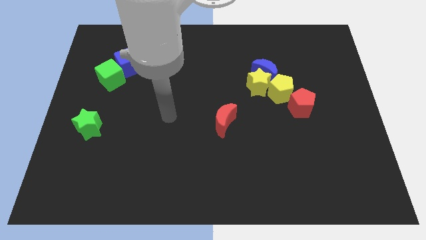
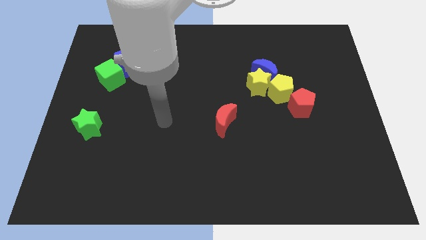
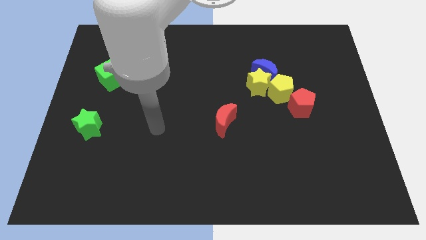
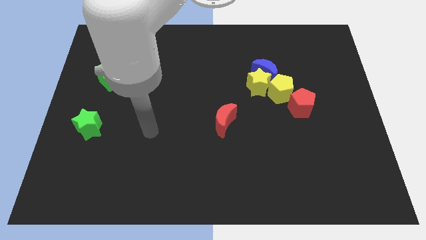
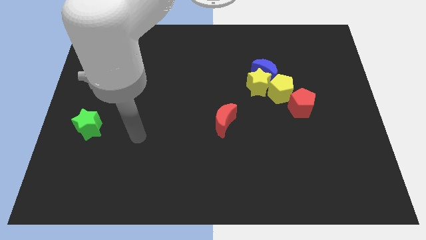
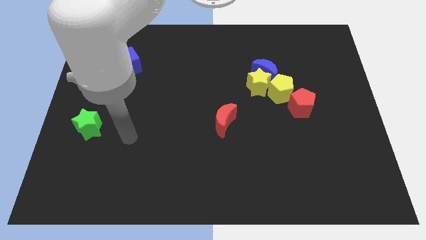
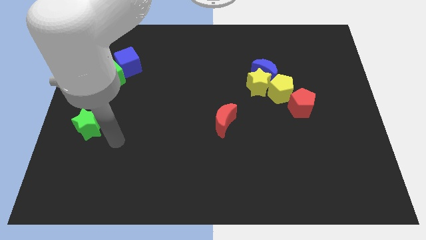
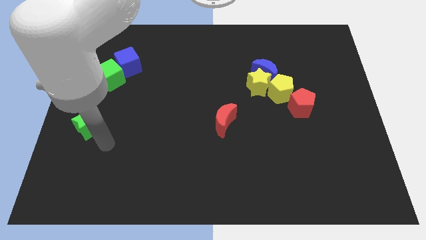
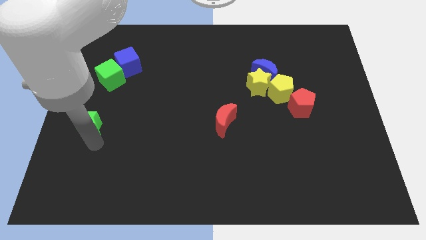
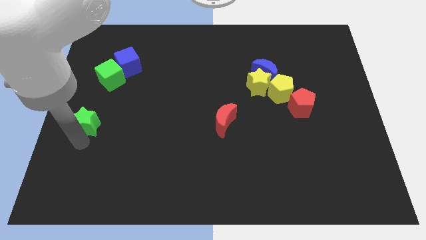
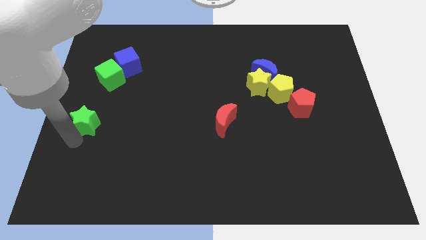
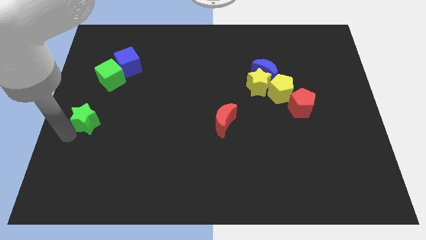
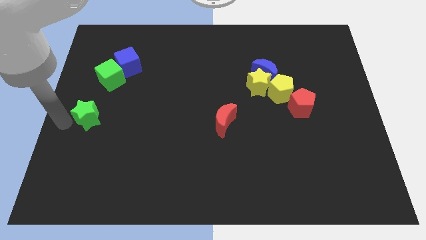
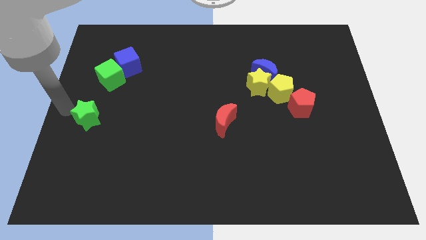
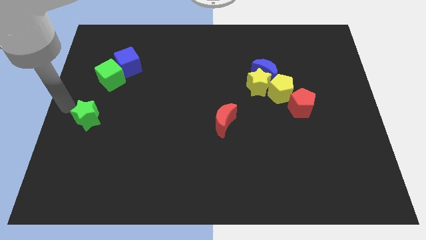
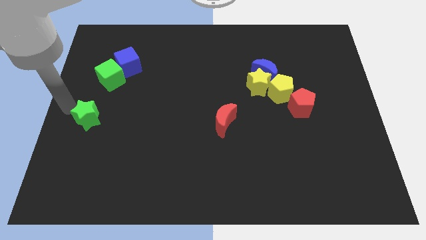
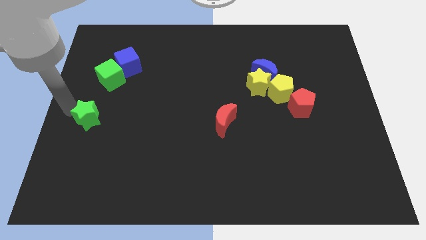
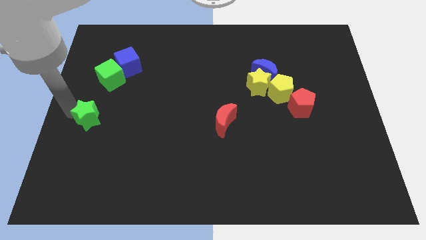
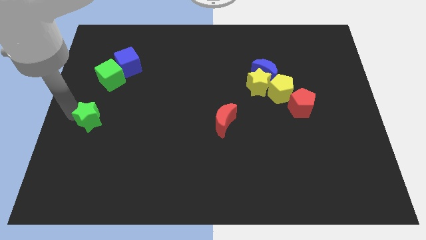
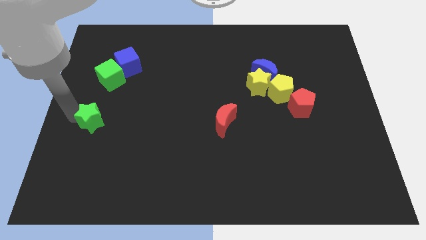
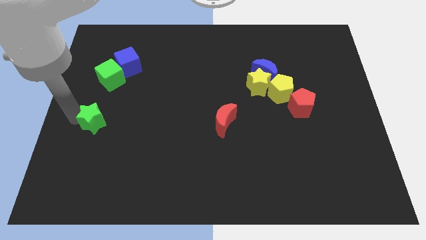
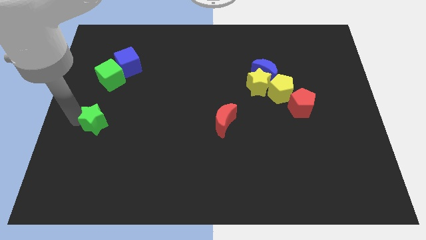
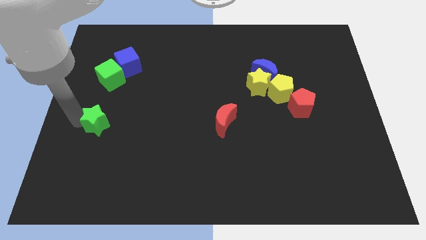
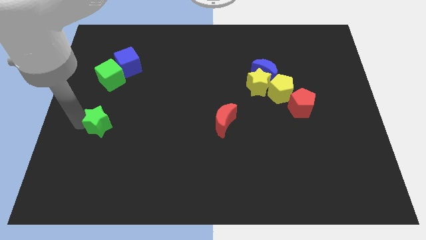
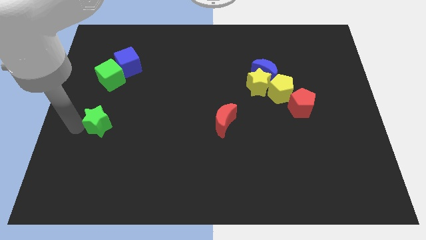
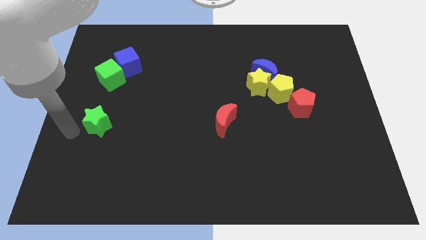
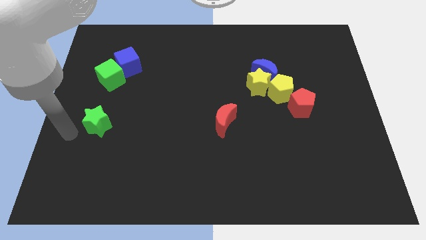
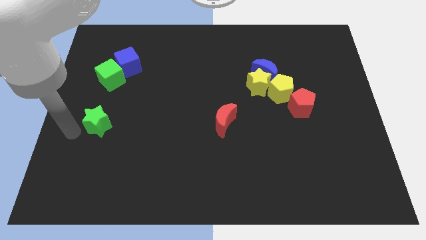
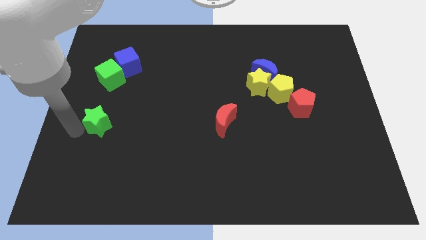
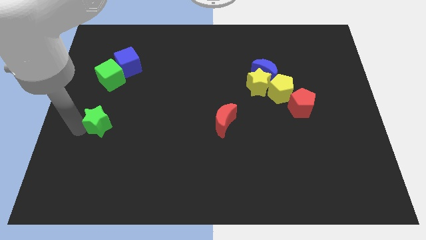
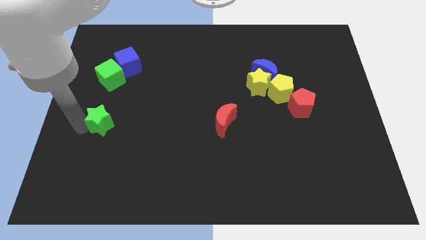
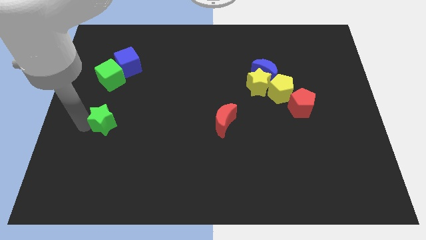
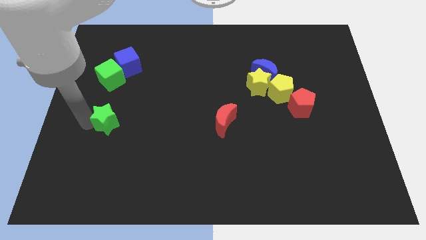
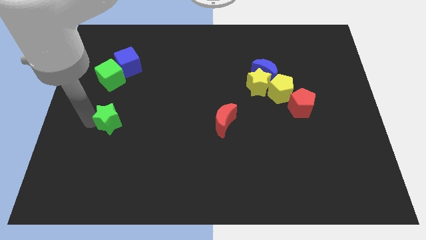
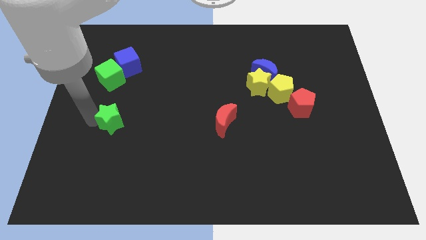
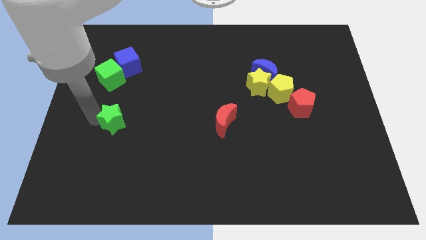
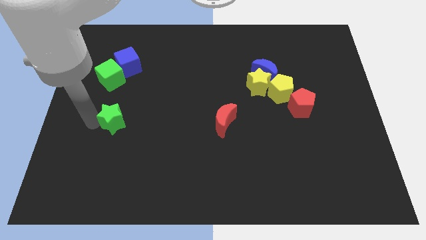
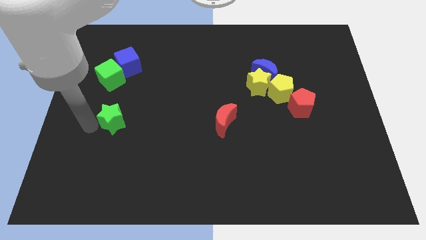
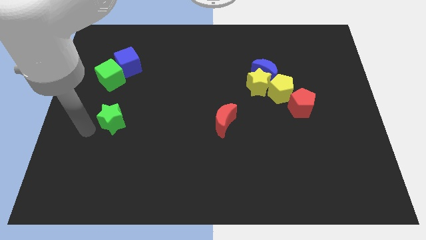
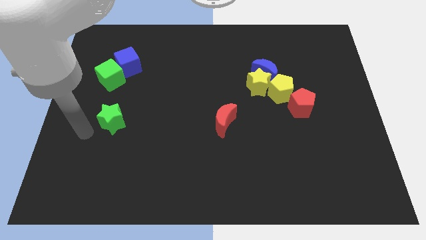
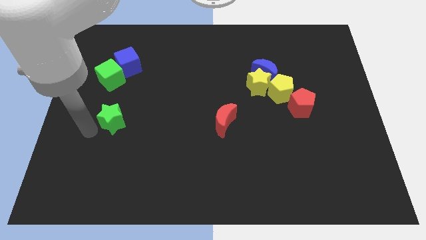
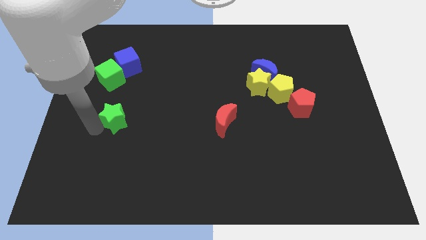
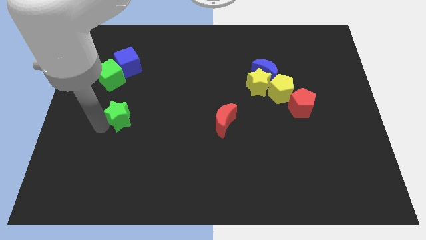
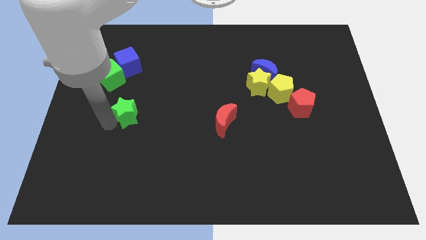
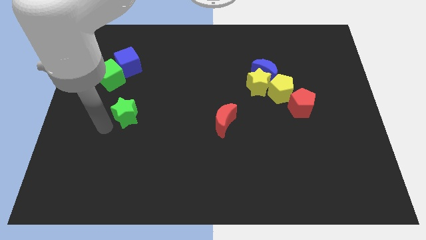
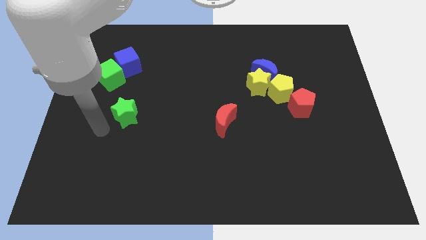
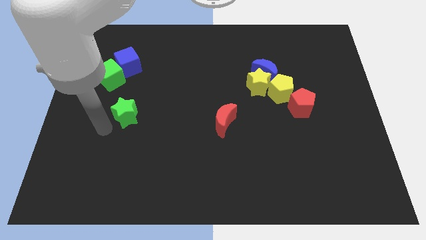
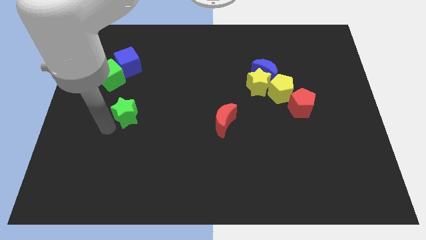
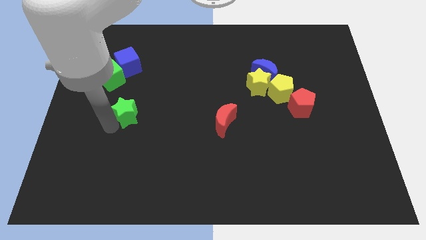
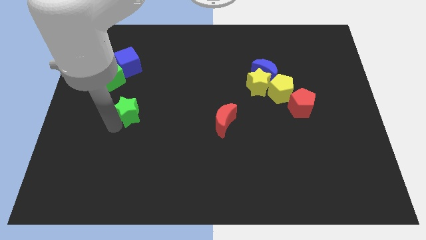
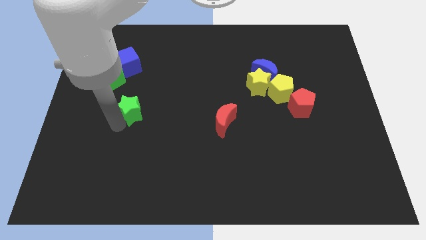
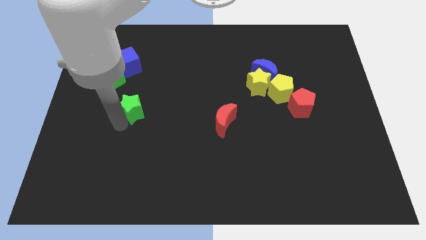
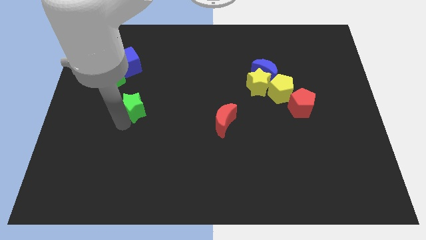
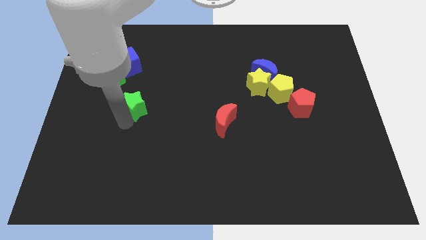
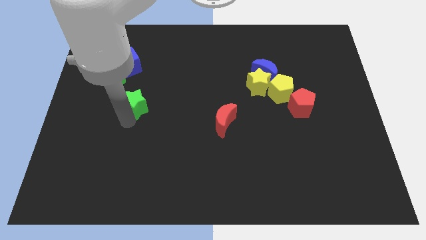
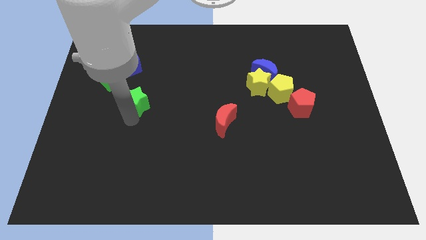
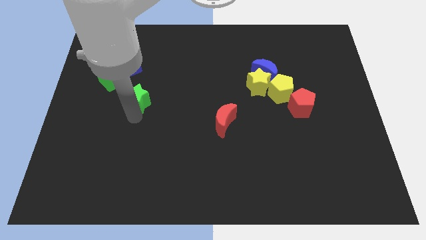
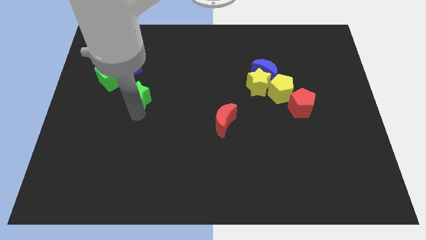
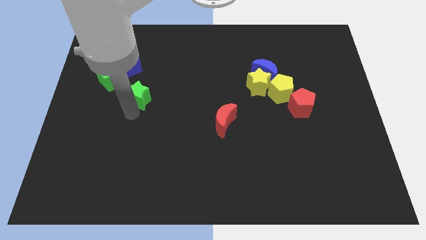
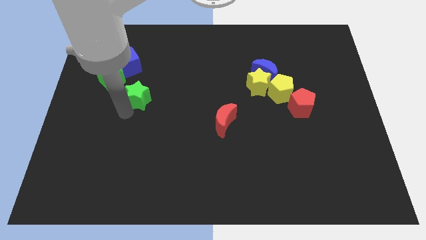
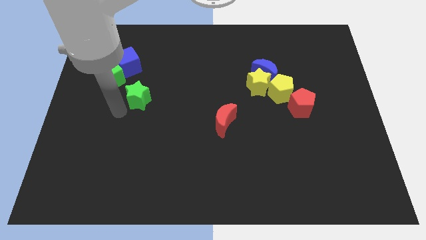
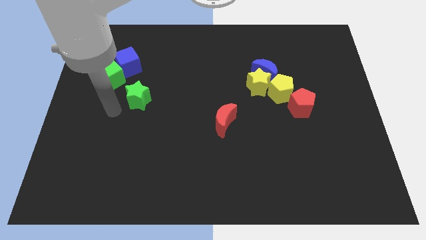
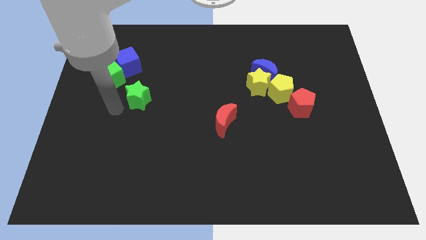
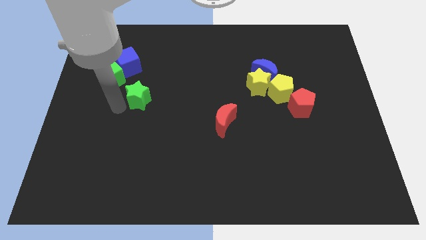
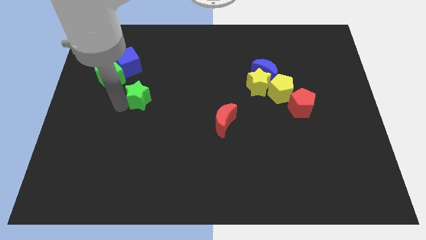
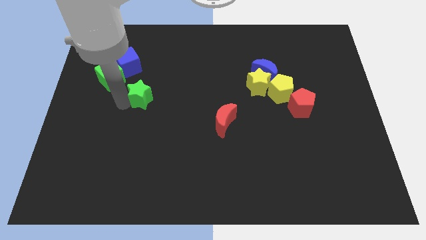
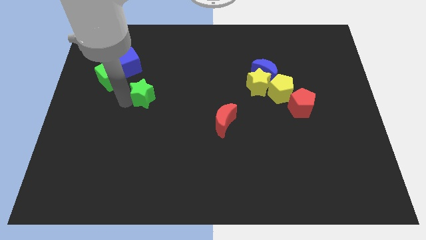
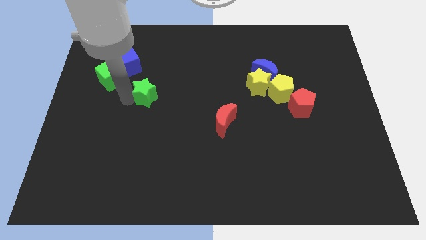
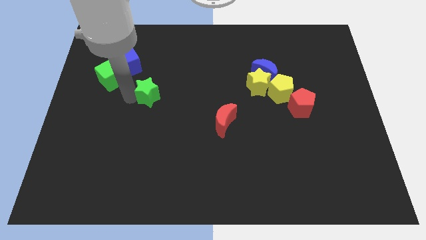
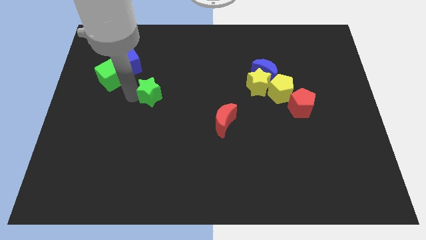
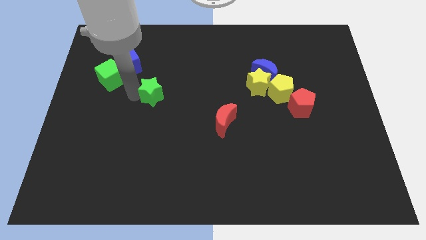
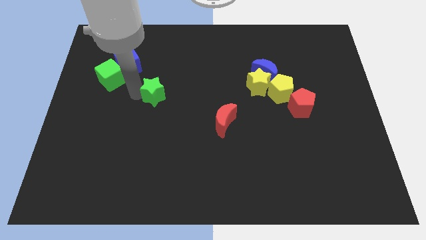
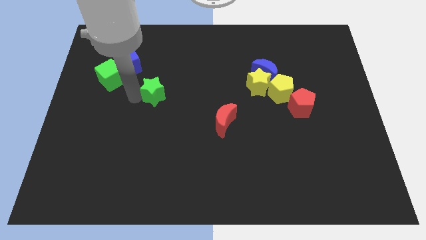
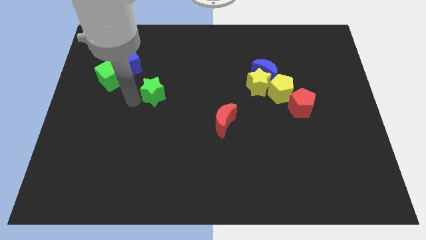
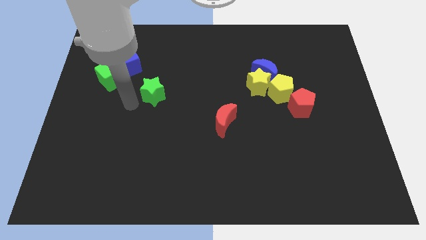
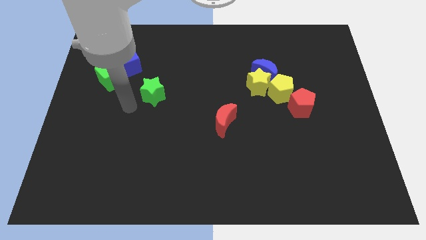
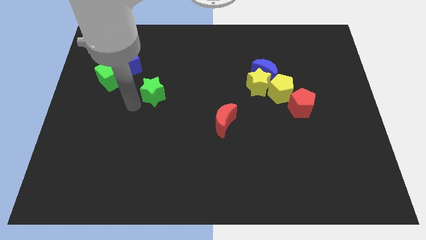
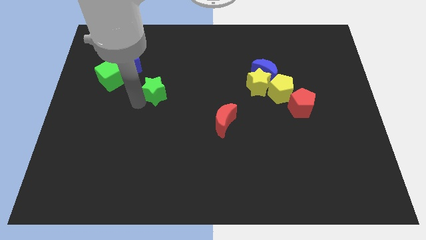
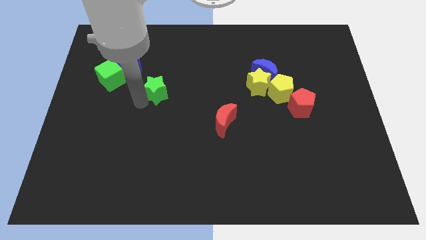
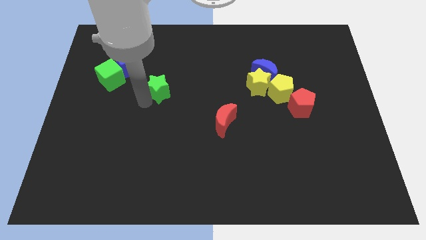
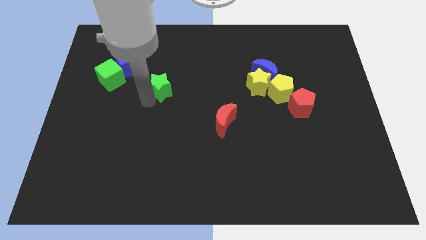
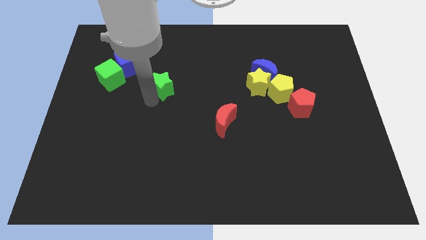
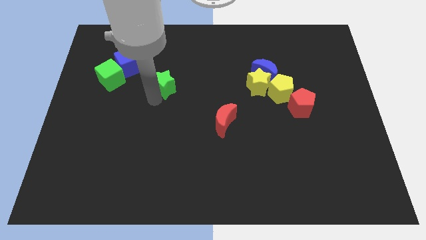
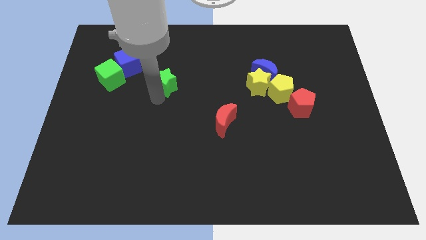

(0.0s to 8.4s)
push the green star up and right
